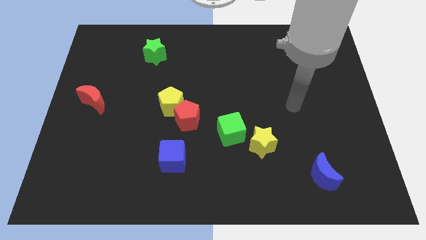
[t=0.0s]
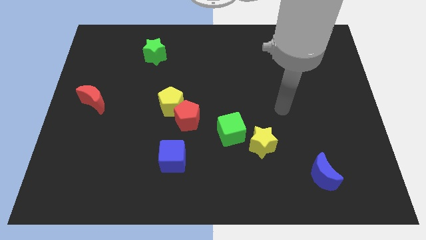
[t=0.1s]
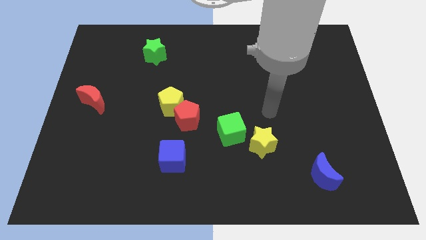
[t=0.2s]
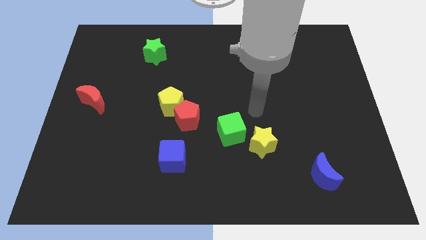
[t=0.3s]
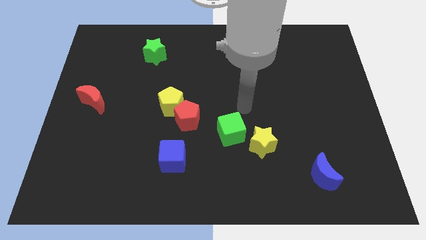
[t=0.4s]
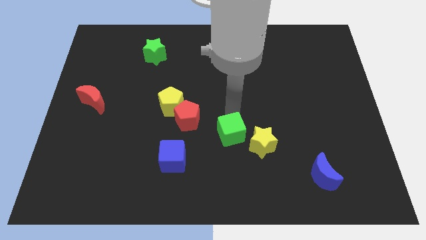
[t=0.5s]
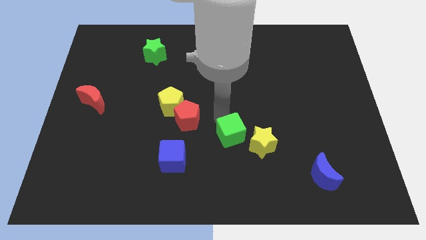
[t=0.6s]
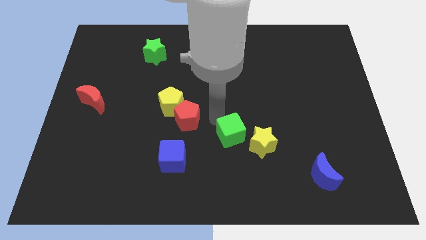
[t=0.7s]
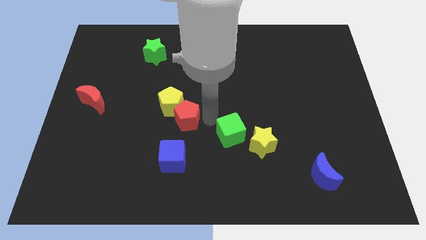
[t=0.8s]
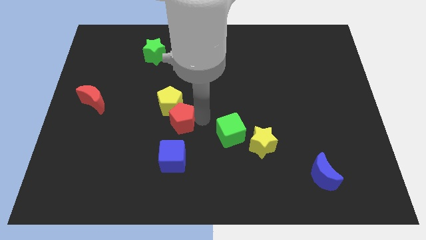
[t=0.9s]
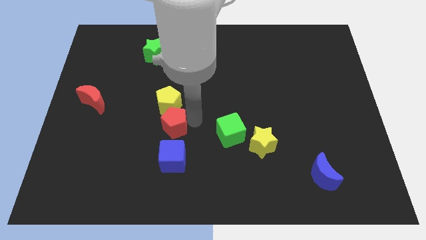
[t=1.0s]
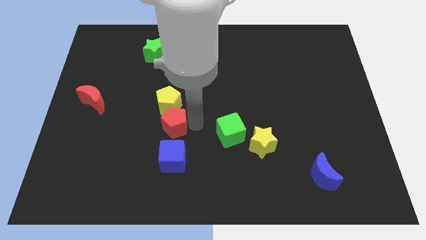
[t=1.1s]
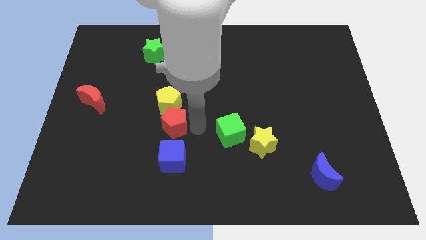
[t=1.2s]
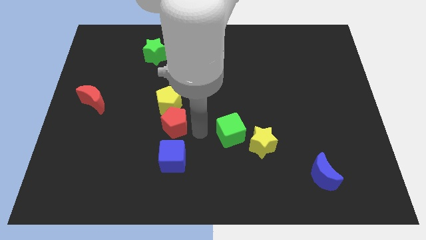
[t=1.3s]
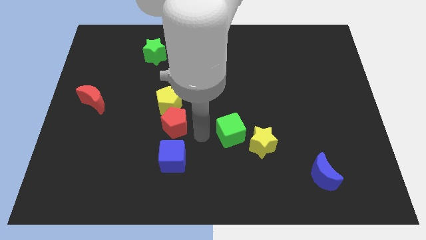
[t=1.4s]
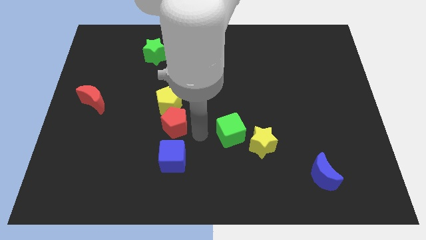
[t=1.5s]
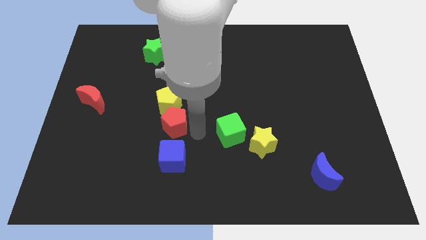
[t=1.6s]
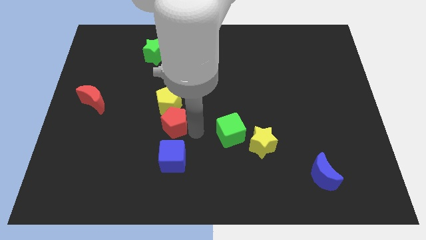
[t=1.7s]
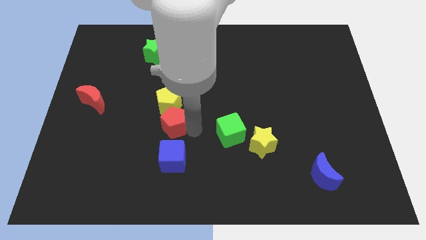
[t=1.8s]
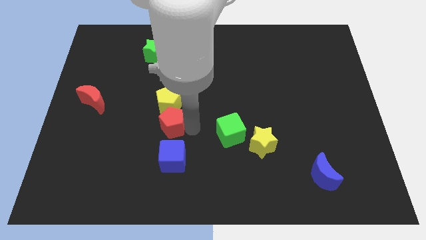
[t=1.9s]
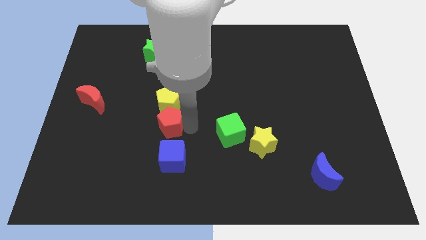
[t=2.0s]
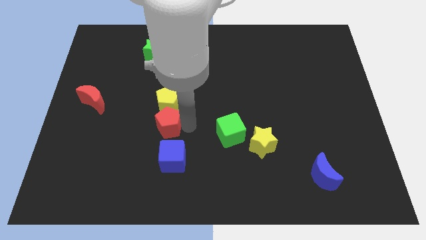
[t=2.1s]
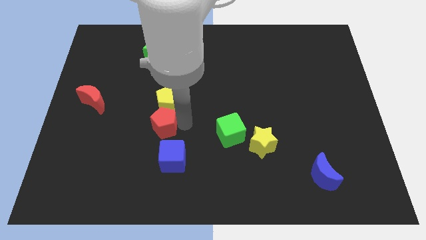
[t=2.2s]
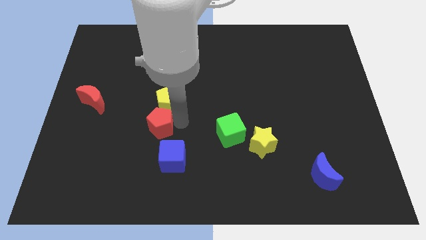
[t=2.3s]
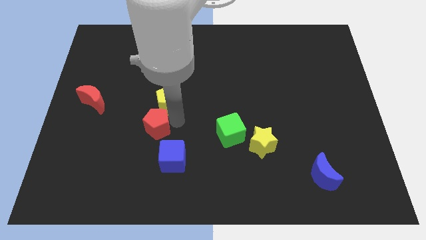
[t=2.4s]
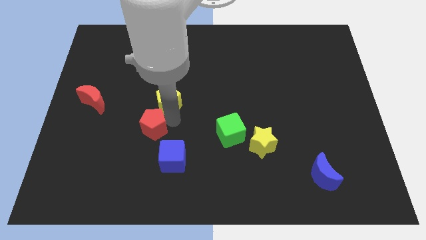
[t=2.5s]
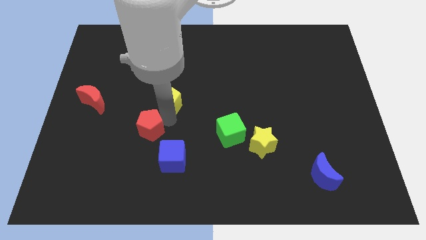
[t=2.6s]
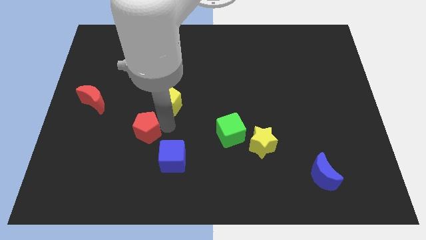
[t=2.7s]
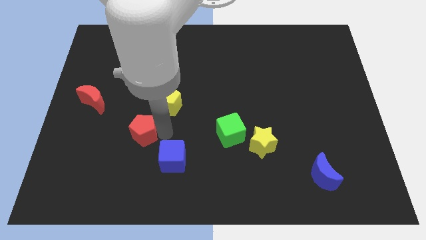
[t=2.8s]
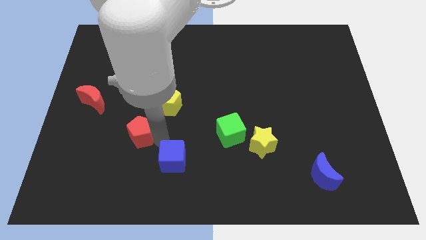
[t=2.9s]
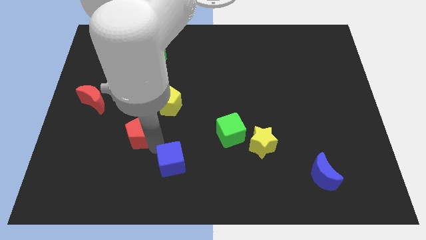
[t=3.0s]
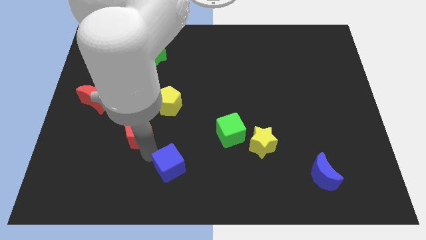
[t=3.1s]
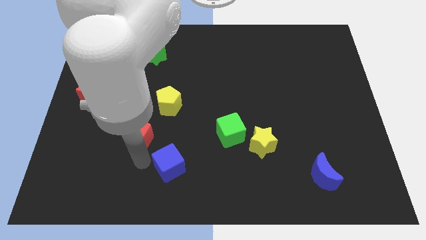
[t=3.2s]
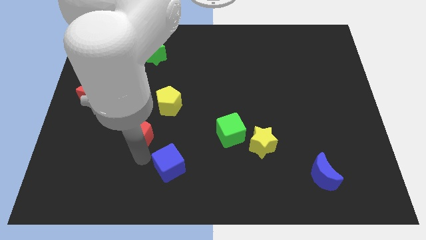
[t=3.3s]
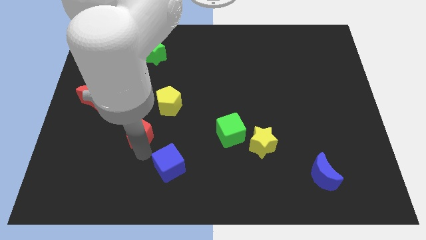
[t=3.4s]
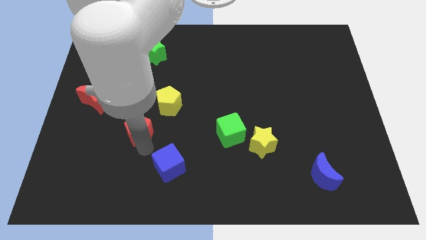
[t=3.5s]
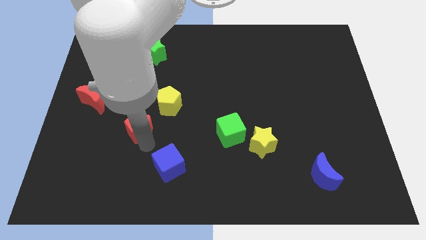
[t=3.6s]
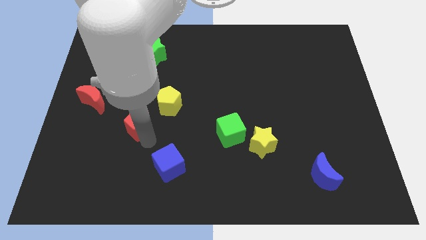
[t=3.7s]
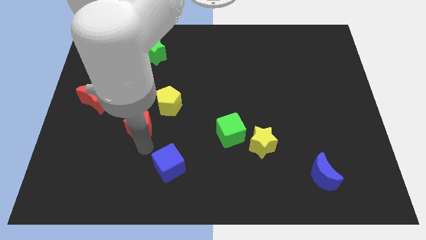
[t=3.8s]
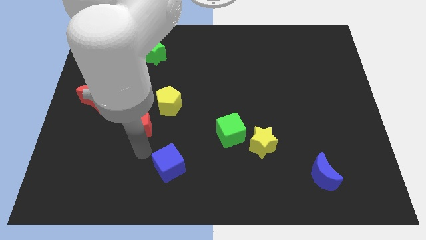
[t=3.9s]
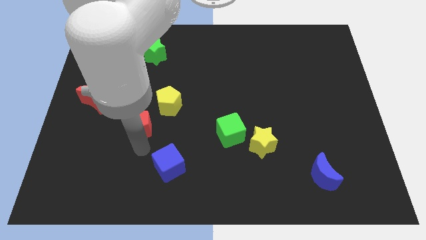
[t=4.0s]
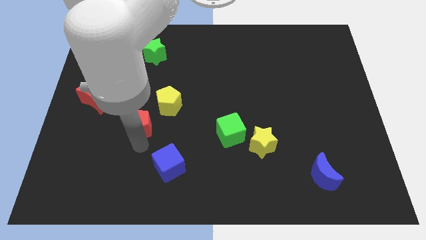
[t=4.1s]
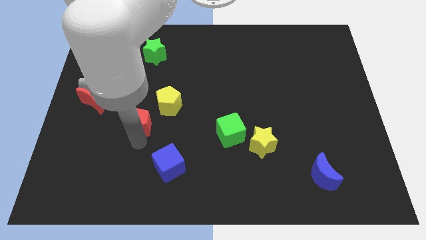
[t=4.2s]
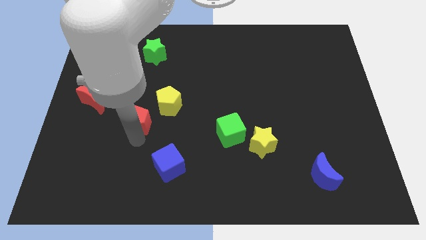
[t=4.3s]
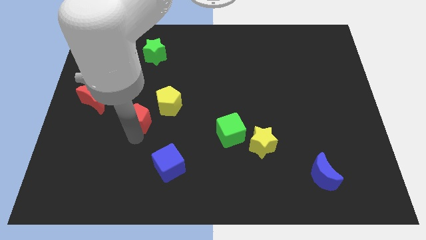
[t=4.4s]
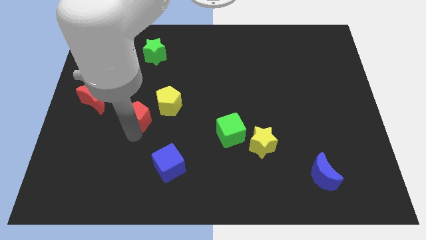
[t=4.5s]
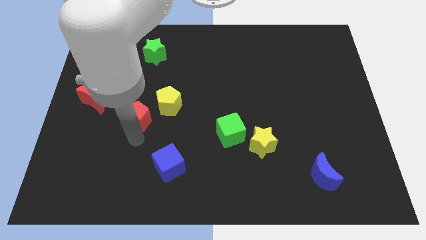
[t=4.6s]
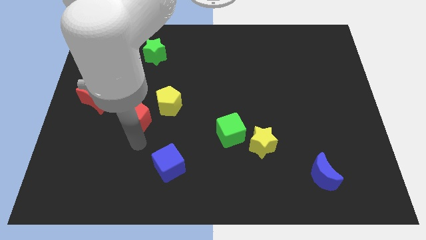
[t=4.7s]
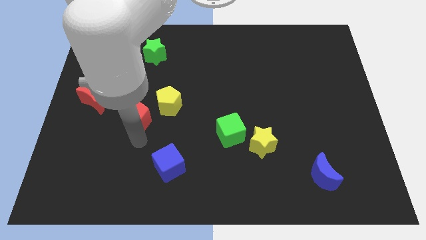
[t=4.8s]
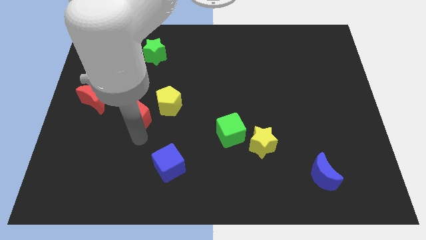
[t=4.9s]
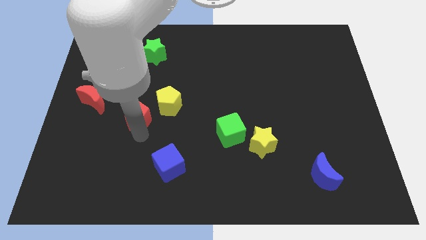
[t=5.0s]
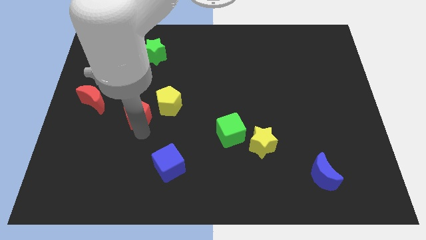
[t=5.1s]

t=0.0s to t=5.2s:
push the red pentagon right of the red moon

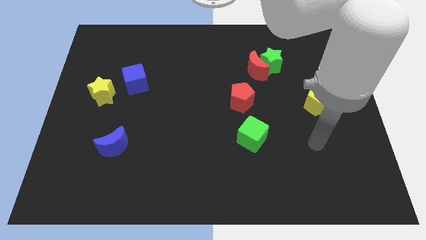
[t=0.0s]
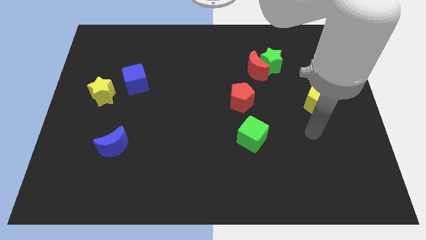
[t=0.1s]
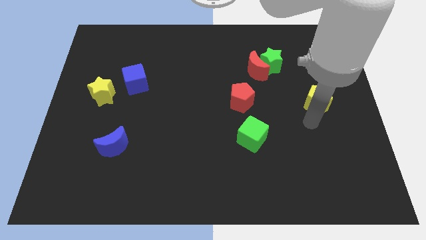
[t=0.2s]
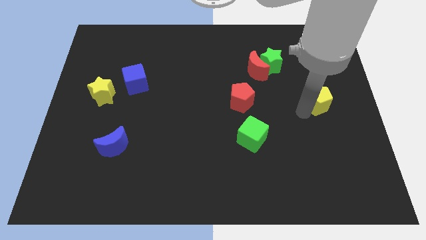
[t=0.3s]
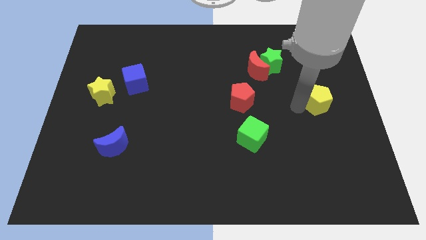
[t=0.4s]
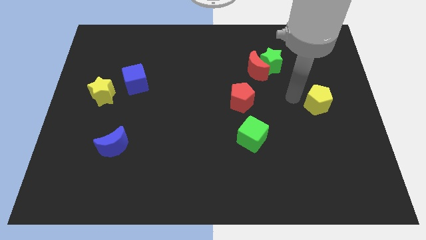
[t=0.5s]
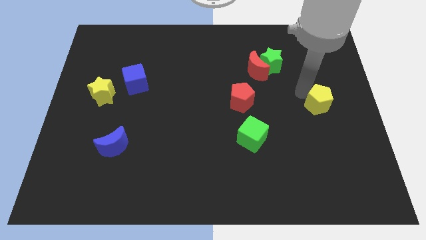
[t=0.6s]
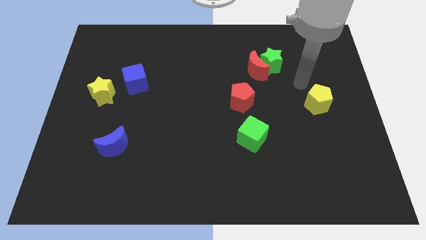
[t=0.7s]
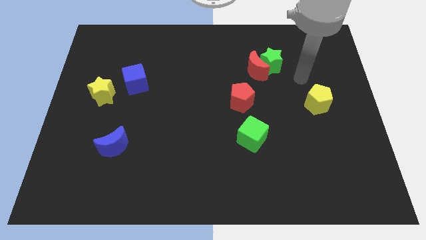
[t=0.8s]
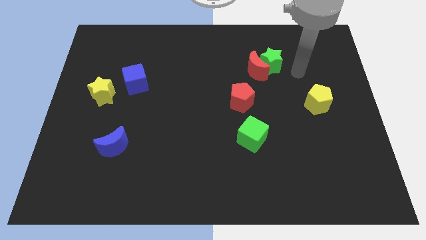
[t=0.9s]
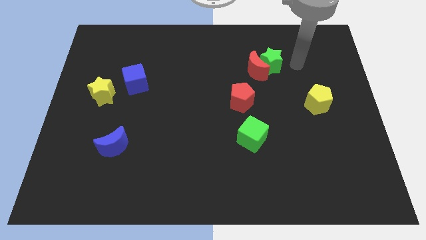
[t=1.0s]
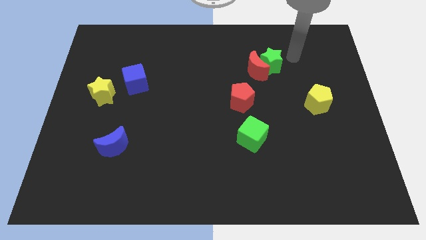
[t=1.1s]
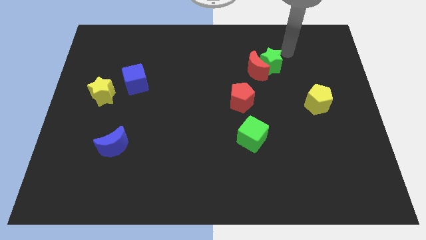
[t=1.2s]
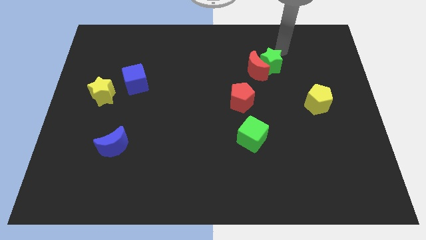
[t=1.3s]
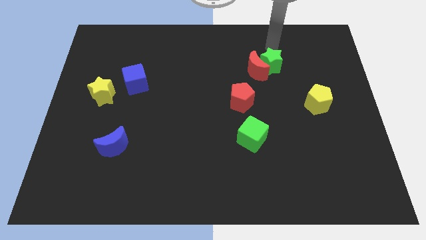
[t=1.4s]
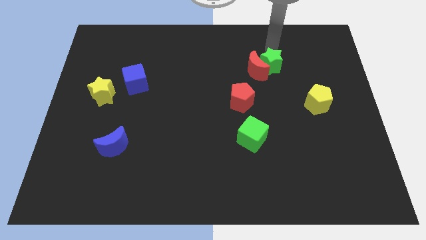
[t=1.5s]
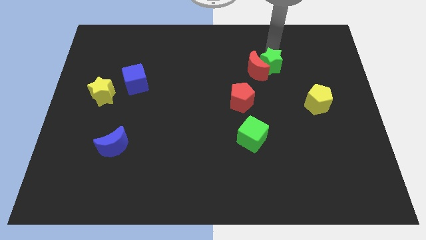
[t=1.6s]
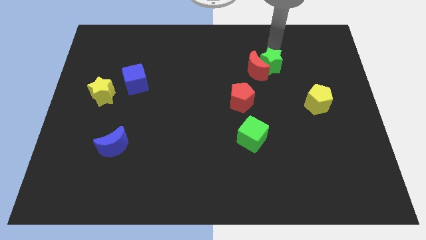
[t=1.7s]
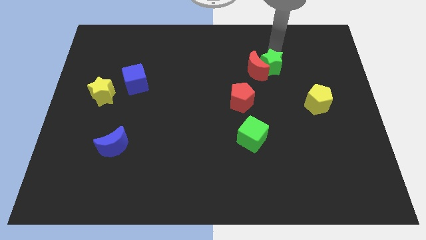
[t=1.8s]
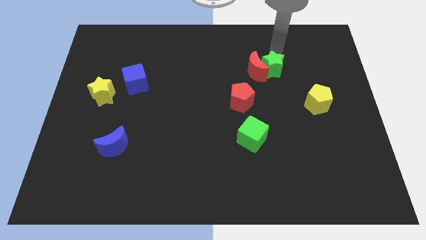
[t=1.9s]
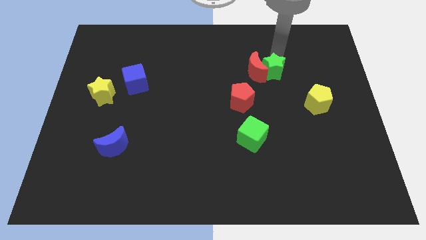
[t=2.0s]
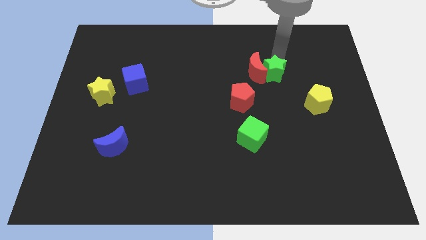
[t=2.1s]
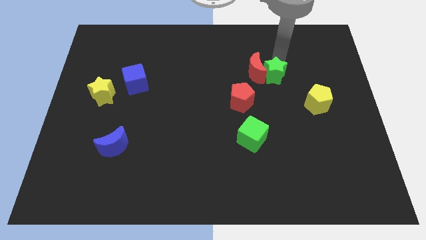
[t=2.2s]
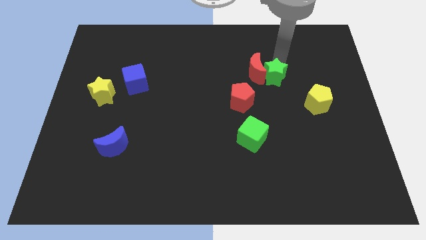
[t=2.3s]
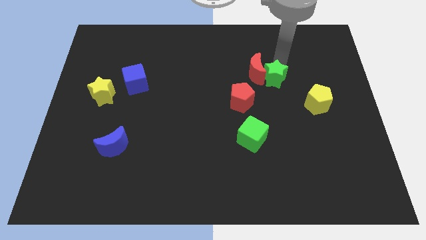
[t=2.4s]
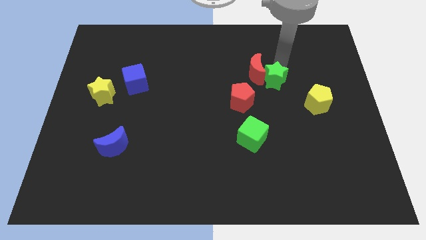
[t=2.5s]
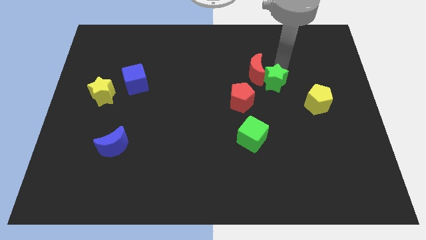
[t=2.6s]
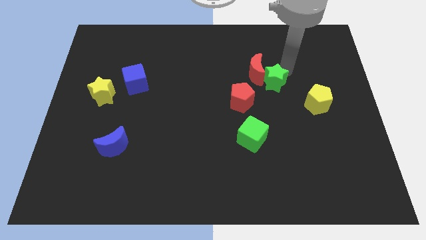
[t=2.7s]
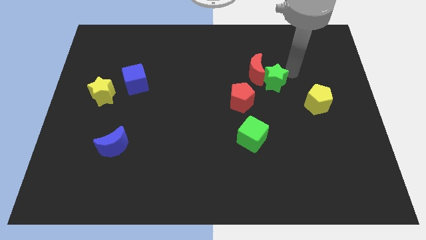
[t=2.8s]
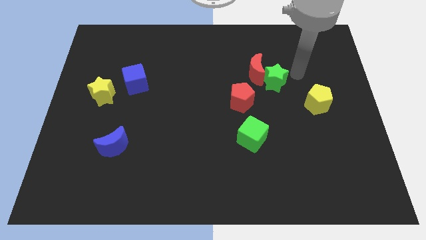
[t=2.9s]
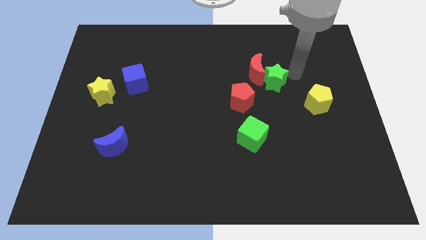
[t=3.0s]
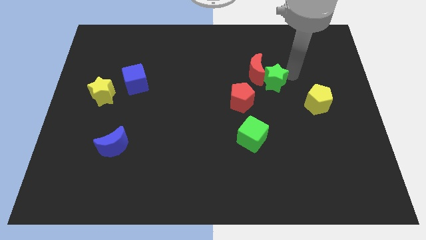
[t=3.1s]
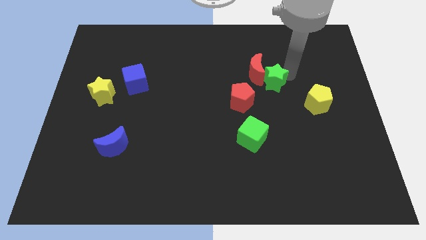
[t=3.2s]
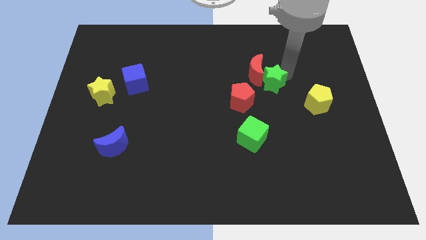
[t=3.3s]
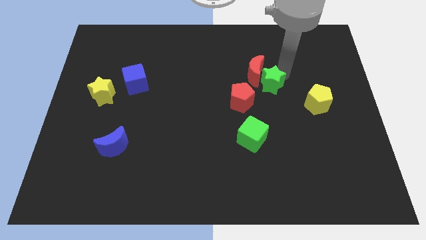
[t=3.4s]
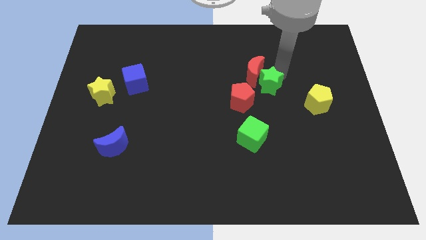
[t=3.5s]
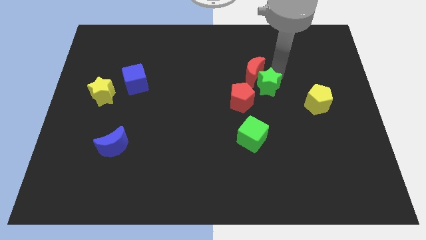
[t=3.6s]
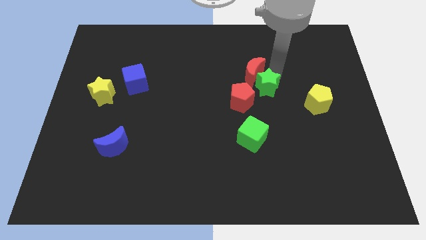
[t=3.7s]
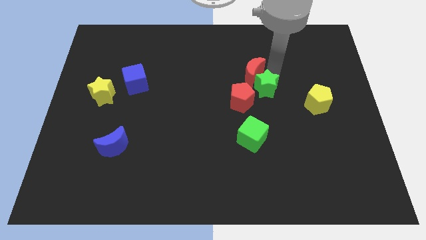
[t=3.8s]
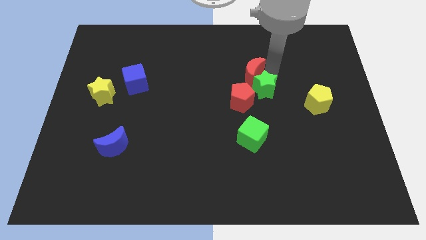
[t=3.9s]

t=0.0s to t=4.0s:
push the green star above the green cube
